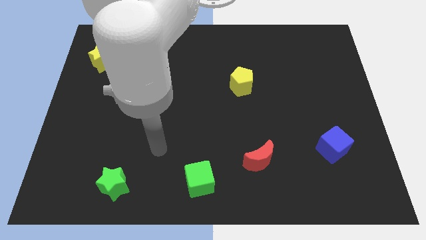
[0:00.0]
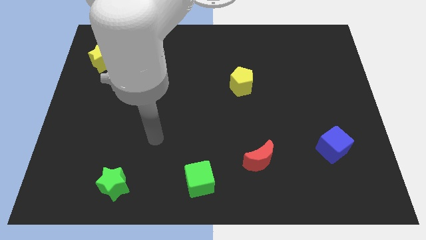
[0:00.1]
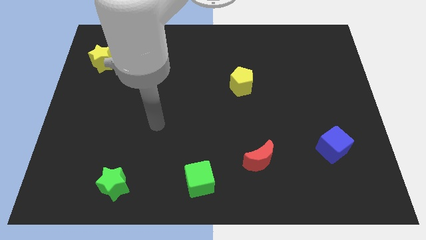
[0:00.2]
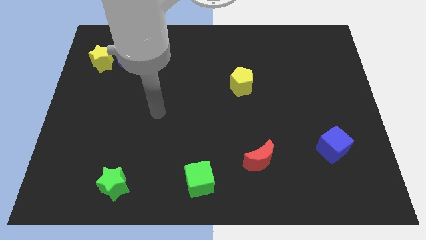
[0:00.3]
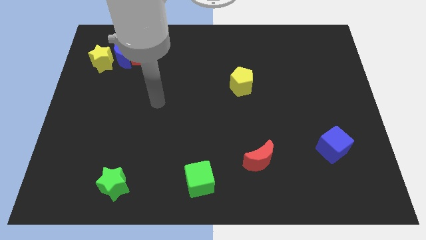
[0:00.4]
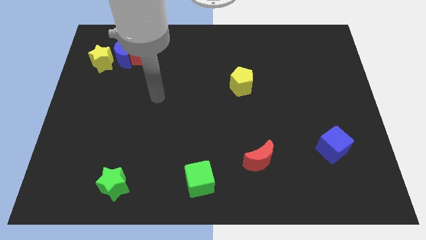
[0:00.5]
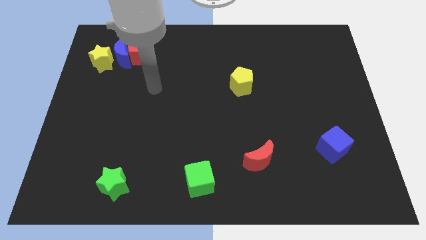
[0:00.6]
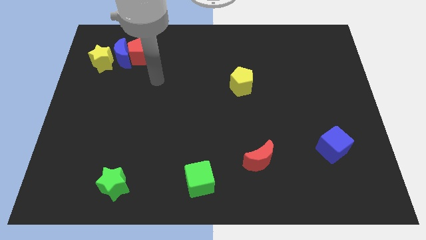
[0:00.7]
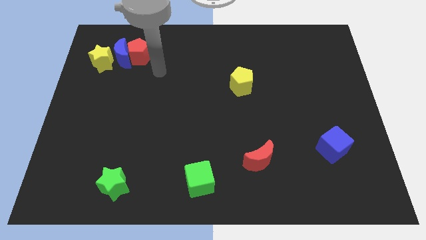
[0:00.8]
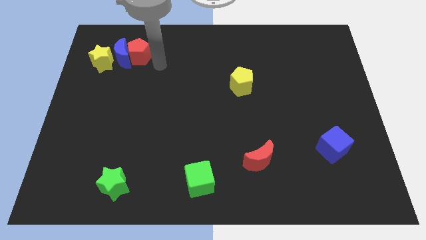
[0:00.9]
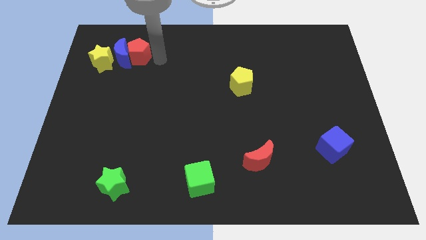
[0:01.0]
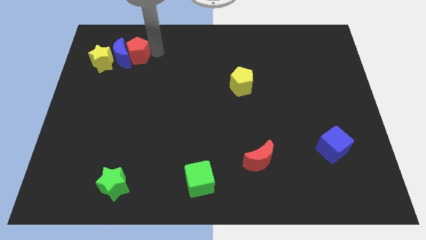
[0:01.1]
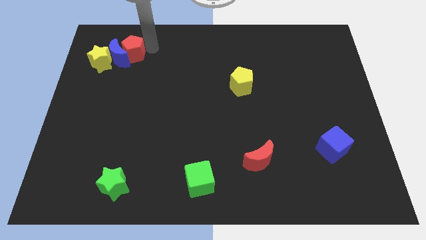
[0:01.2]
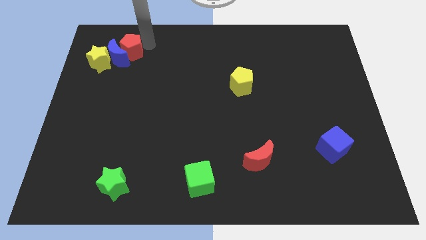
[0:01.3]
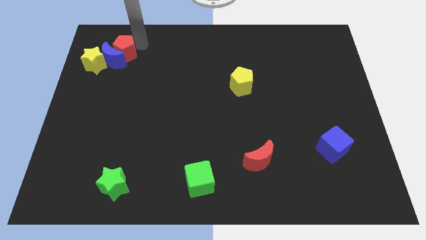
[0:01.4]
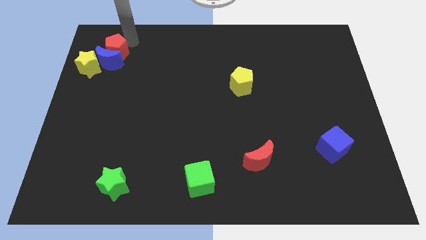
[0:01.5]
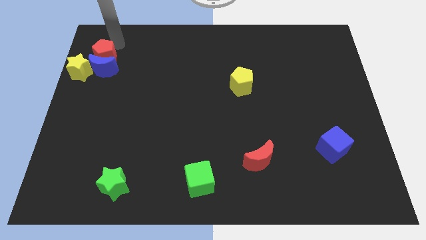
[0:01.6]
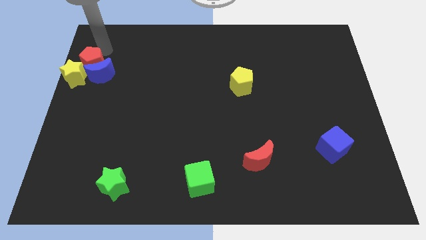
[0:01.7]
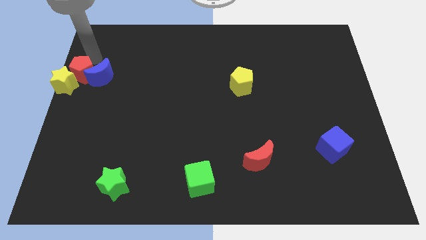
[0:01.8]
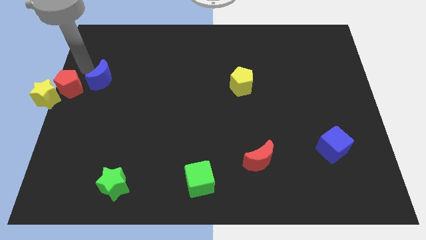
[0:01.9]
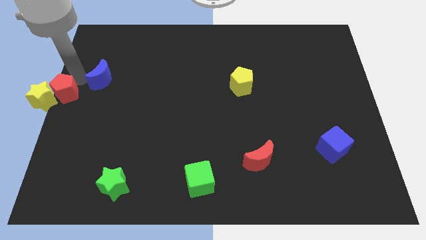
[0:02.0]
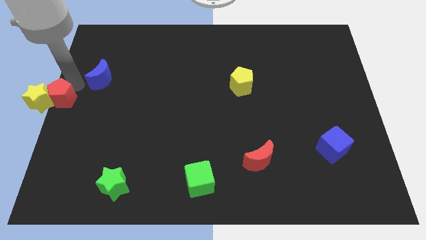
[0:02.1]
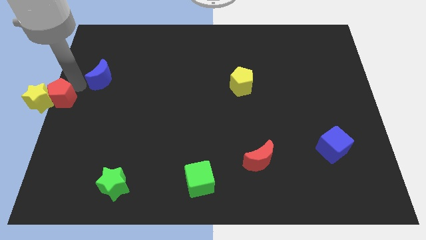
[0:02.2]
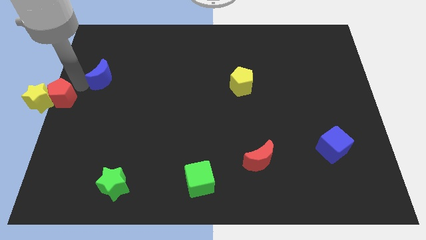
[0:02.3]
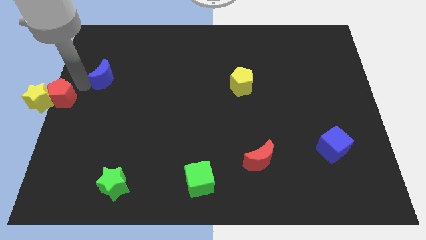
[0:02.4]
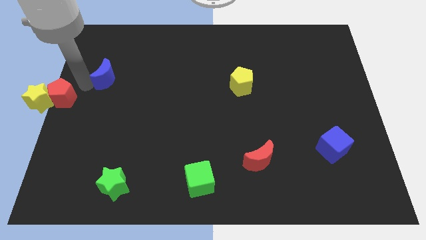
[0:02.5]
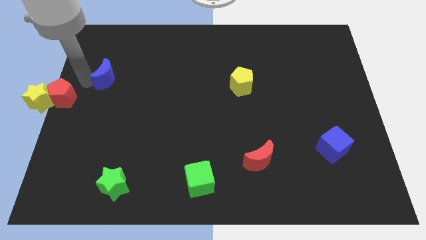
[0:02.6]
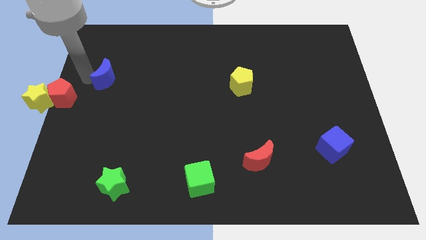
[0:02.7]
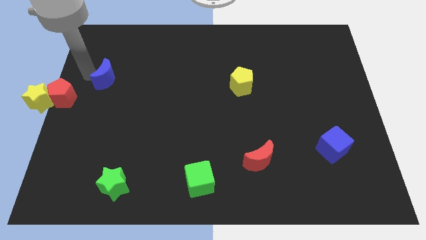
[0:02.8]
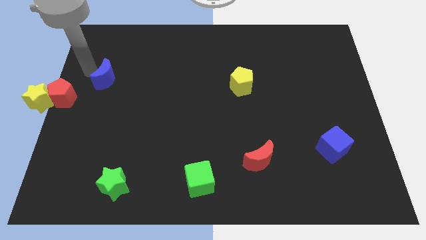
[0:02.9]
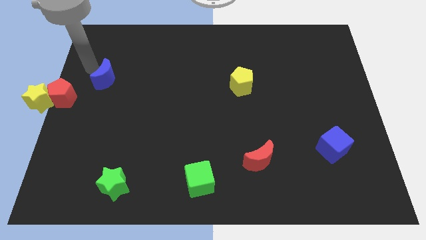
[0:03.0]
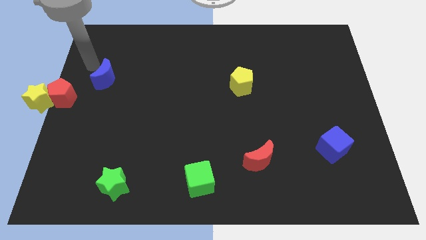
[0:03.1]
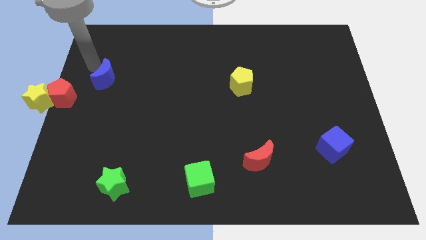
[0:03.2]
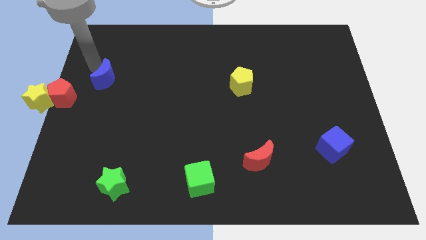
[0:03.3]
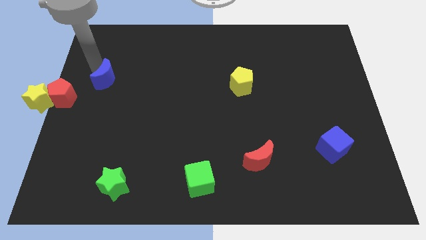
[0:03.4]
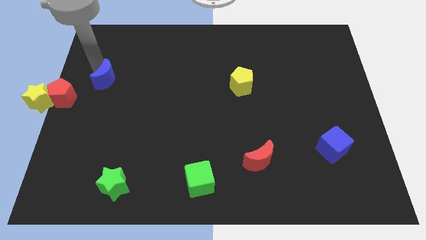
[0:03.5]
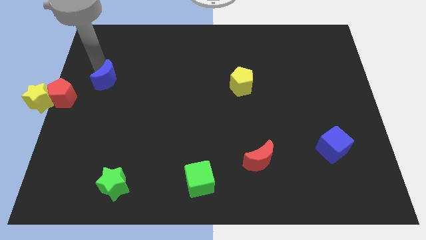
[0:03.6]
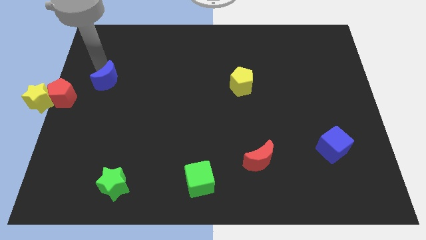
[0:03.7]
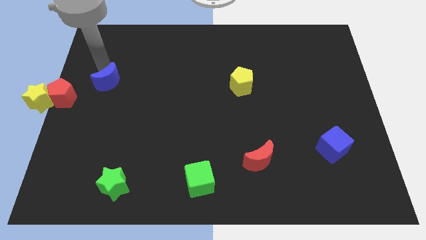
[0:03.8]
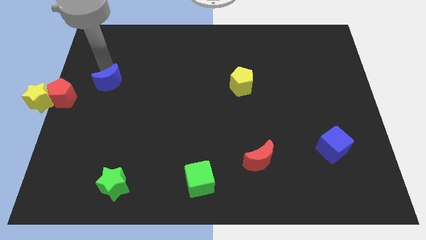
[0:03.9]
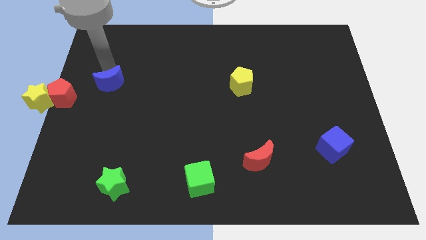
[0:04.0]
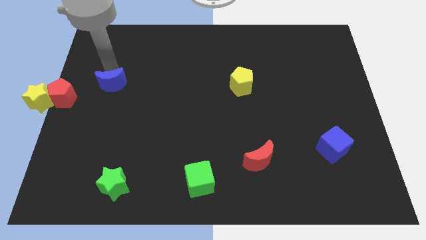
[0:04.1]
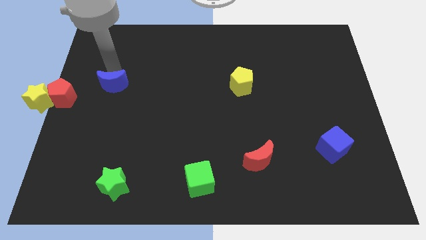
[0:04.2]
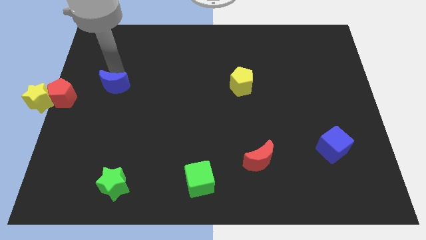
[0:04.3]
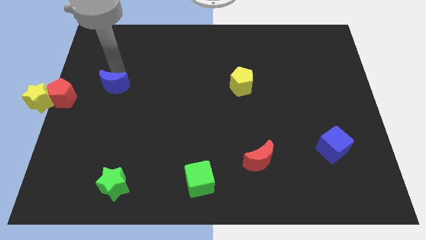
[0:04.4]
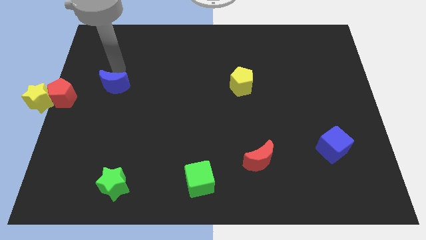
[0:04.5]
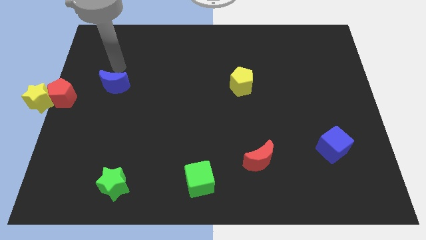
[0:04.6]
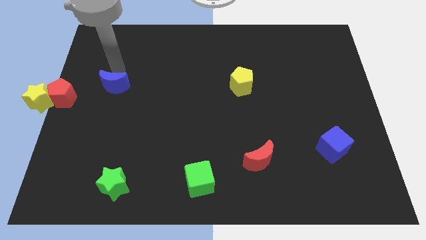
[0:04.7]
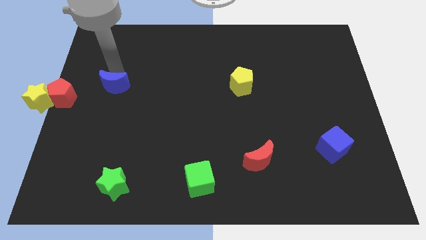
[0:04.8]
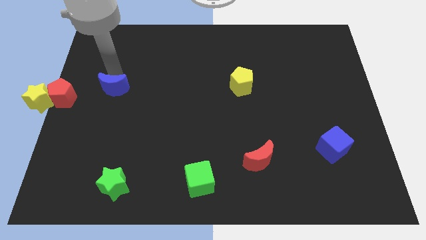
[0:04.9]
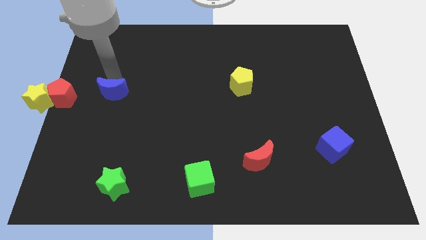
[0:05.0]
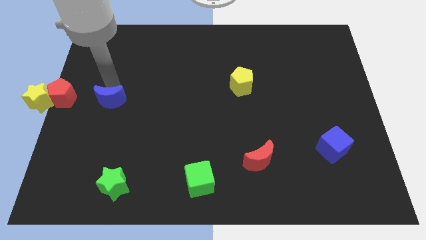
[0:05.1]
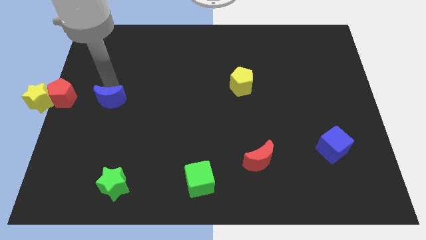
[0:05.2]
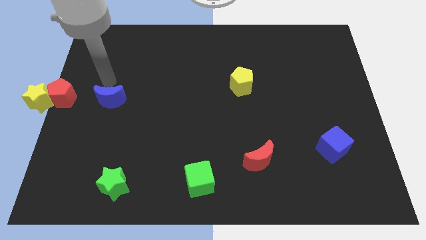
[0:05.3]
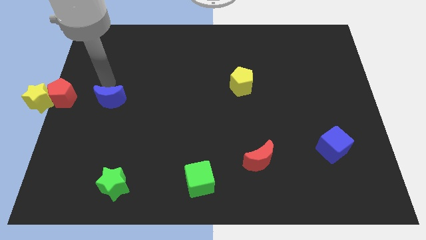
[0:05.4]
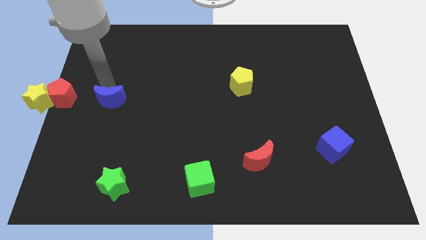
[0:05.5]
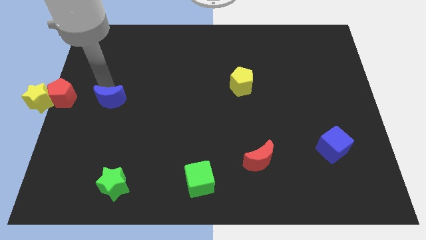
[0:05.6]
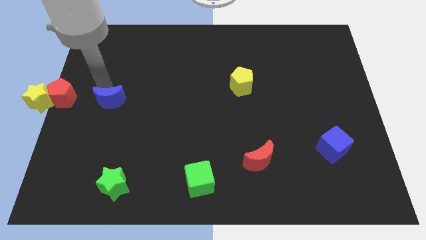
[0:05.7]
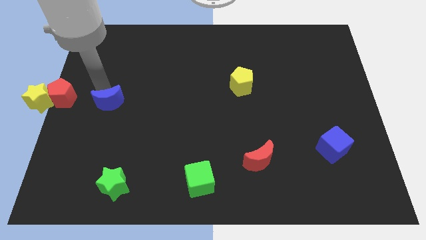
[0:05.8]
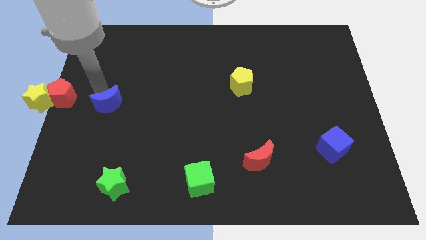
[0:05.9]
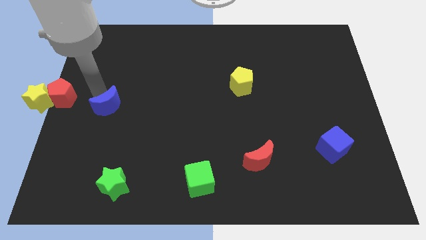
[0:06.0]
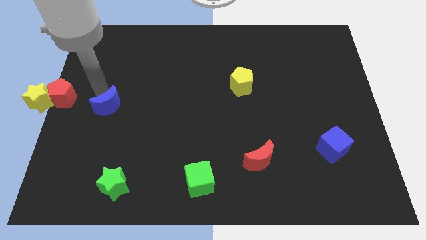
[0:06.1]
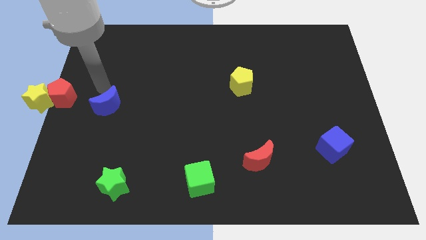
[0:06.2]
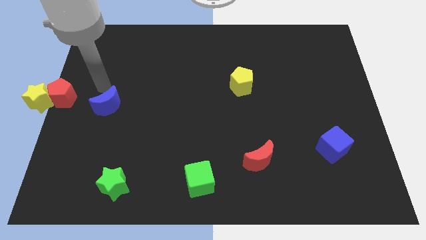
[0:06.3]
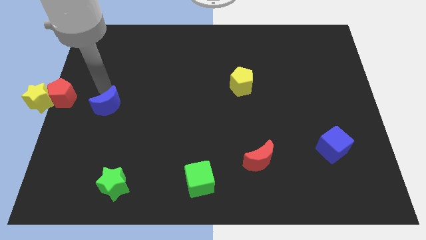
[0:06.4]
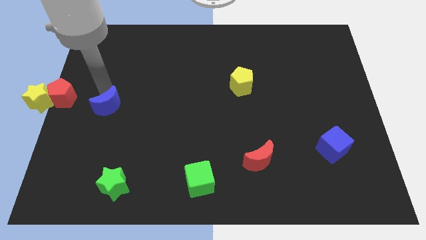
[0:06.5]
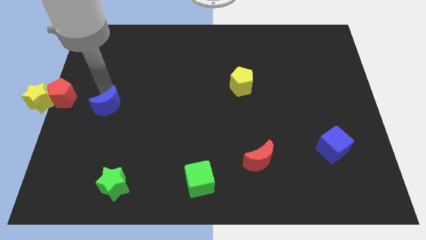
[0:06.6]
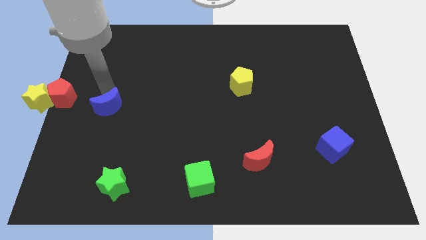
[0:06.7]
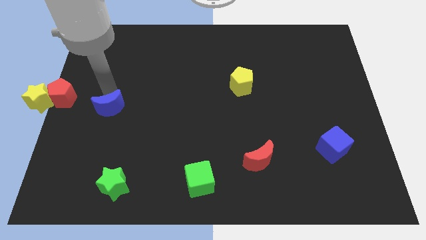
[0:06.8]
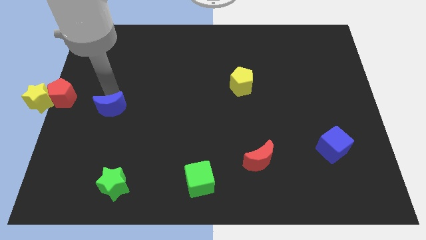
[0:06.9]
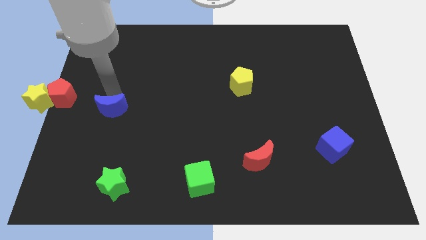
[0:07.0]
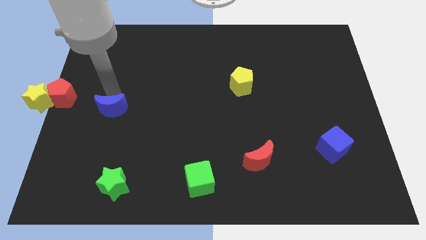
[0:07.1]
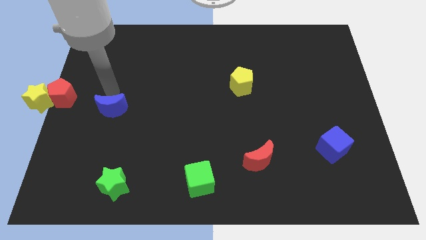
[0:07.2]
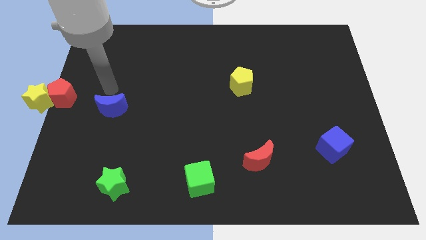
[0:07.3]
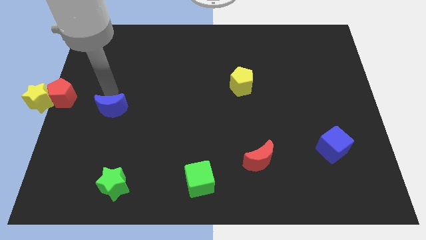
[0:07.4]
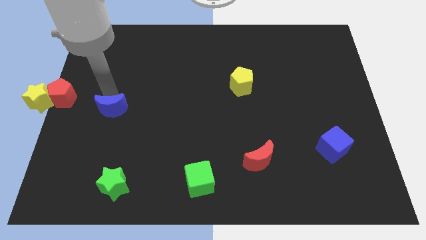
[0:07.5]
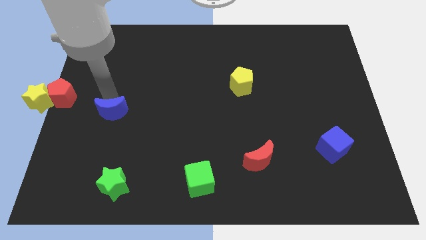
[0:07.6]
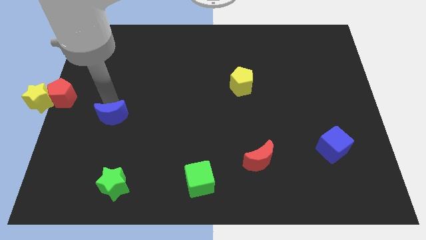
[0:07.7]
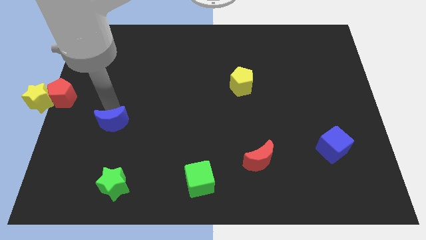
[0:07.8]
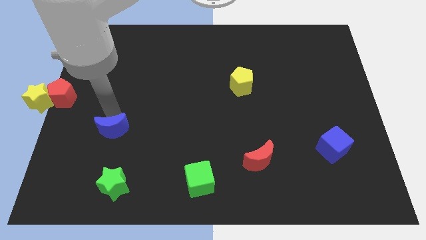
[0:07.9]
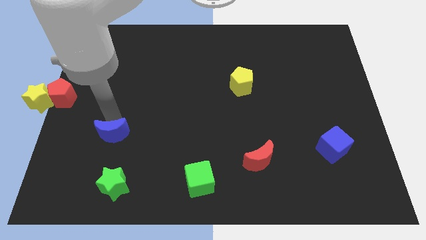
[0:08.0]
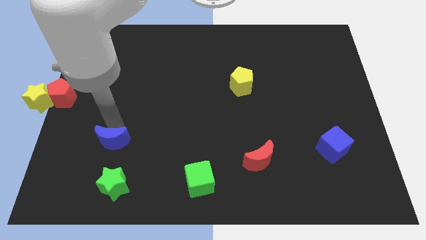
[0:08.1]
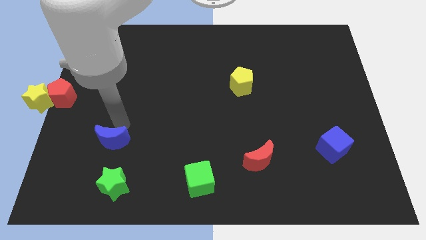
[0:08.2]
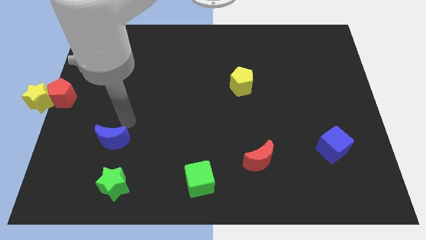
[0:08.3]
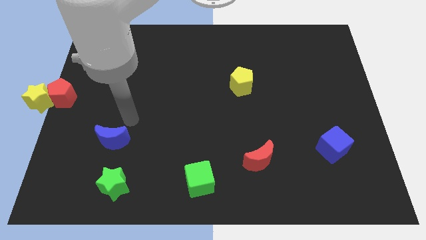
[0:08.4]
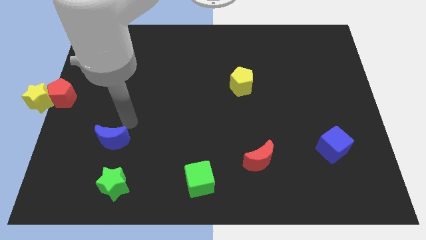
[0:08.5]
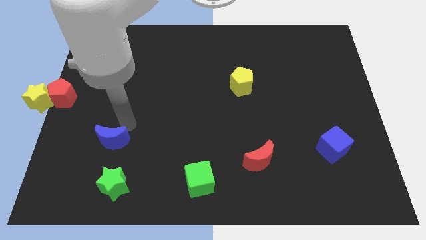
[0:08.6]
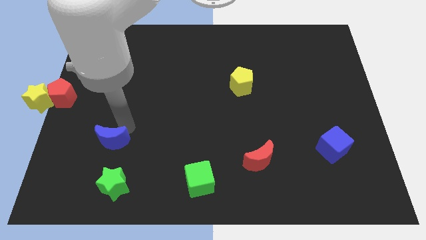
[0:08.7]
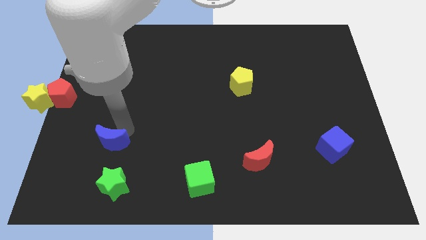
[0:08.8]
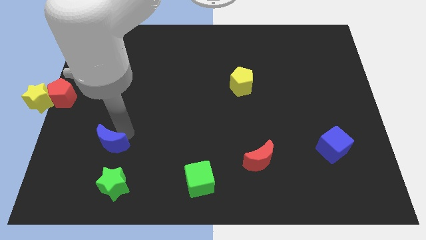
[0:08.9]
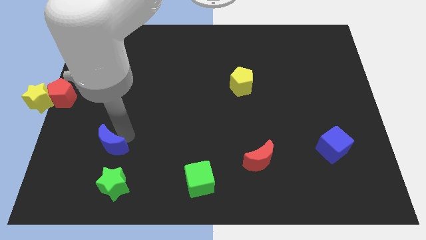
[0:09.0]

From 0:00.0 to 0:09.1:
put the blue moon diagonally up and to the left of the green star
